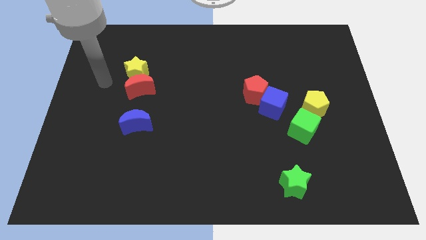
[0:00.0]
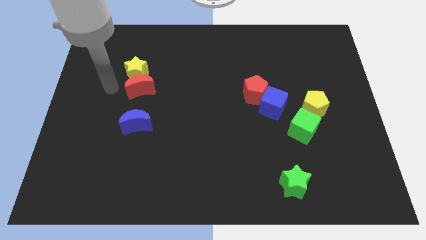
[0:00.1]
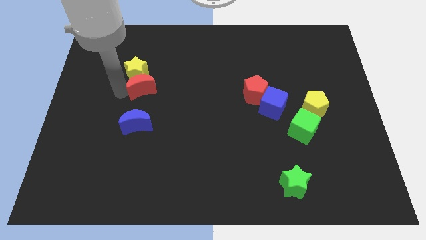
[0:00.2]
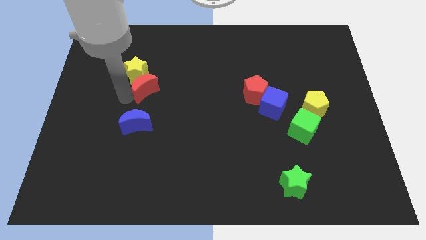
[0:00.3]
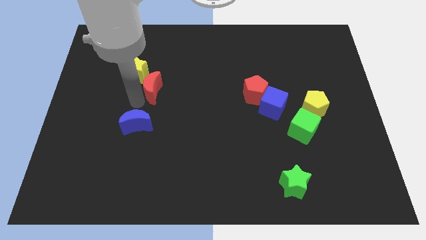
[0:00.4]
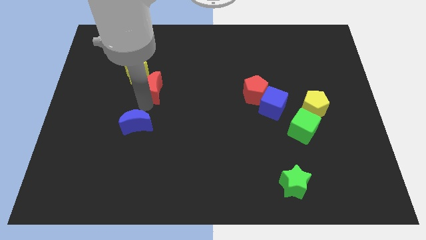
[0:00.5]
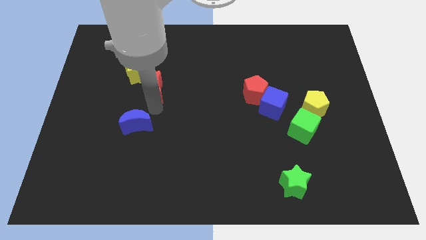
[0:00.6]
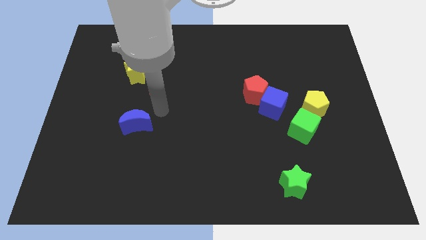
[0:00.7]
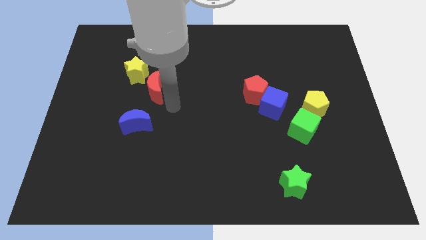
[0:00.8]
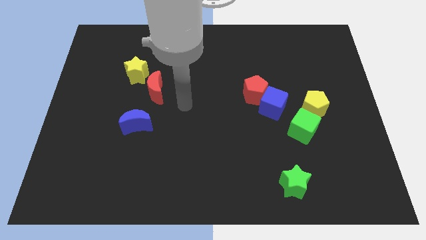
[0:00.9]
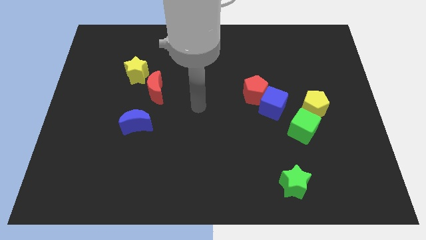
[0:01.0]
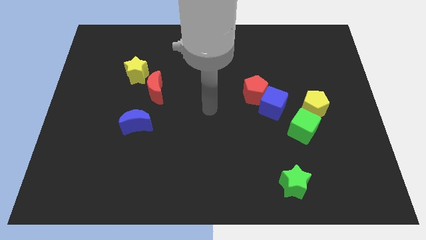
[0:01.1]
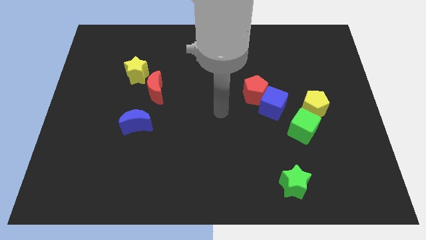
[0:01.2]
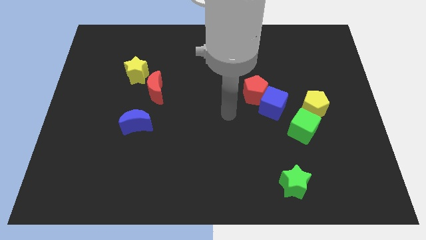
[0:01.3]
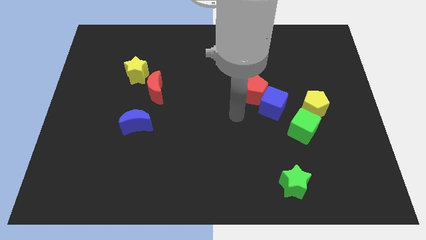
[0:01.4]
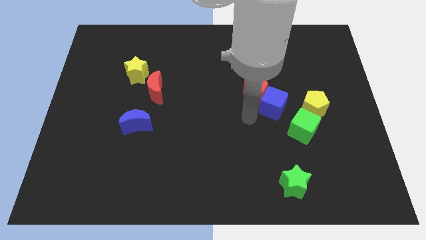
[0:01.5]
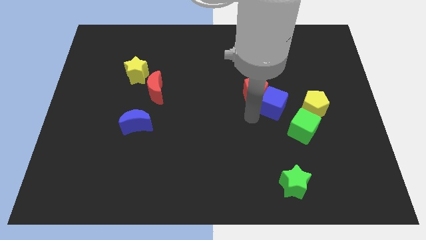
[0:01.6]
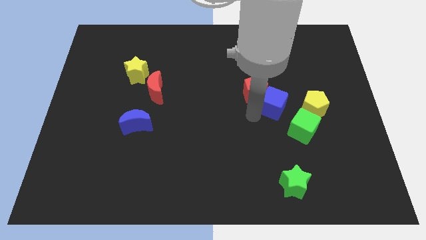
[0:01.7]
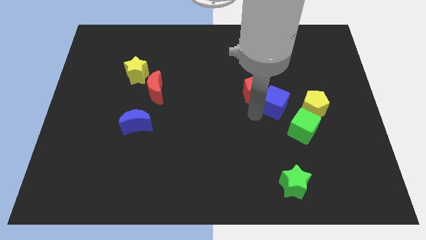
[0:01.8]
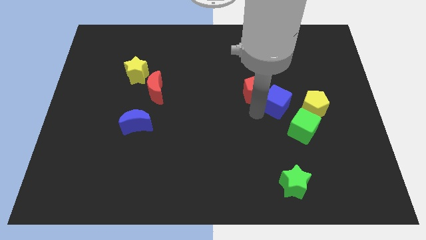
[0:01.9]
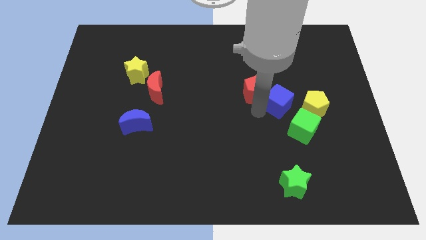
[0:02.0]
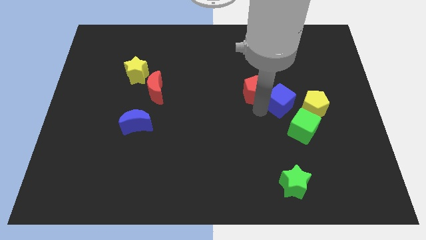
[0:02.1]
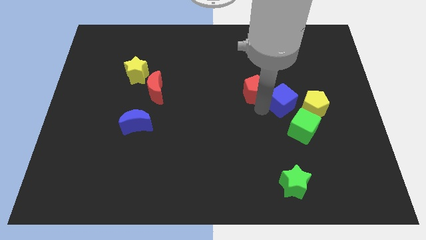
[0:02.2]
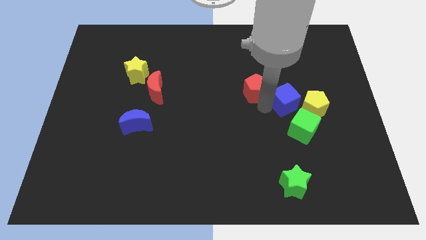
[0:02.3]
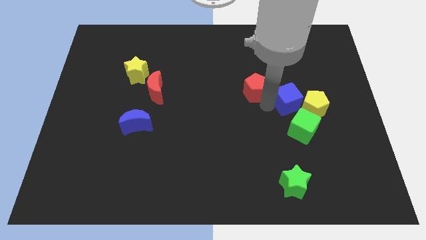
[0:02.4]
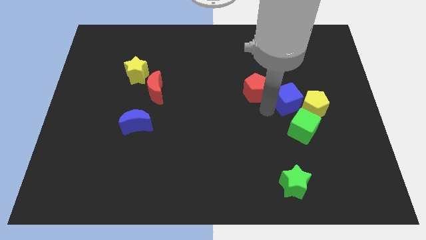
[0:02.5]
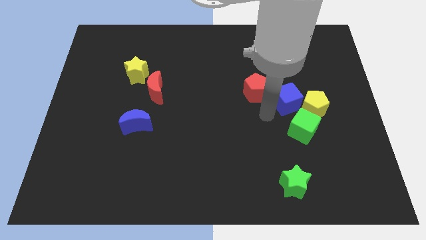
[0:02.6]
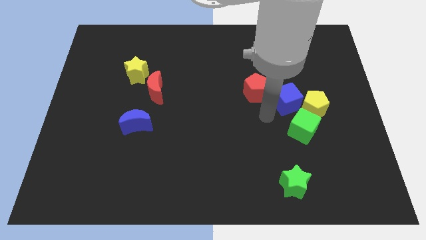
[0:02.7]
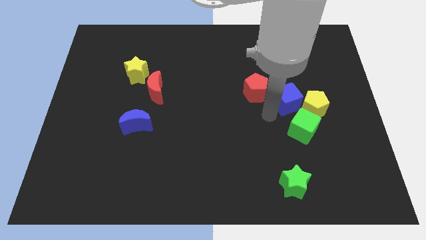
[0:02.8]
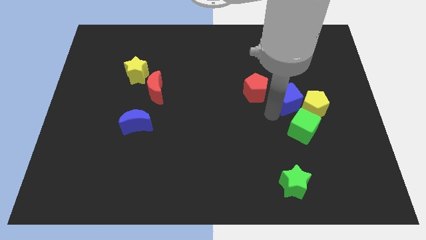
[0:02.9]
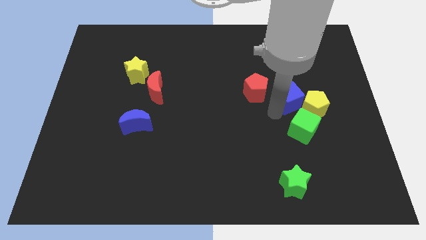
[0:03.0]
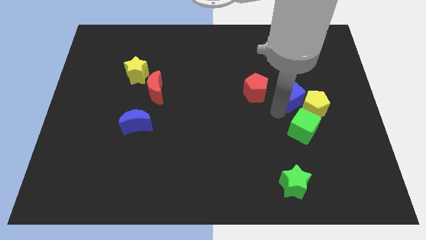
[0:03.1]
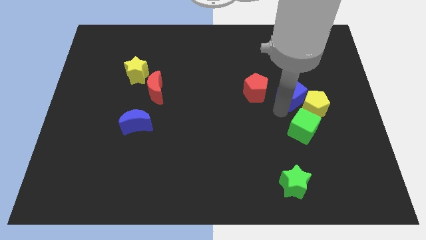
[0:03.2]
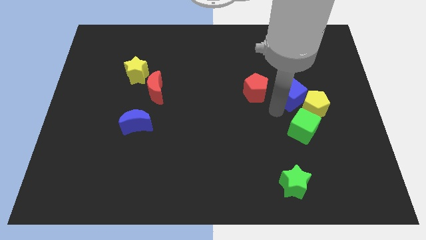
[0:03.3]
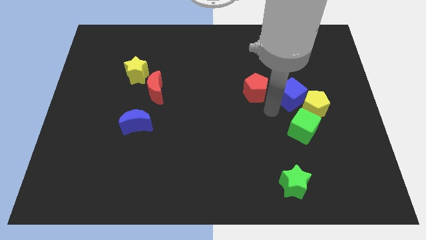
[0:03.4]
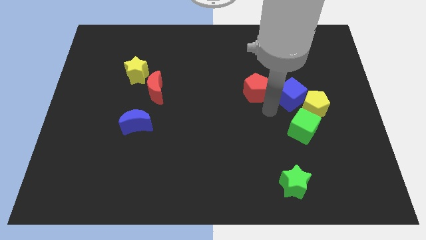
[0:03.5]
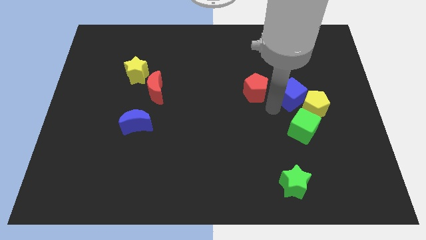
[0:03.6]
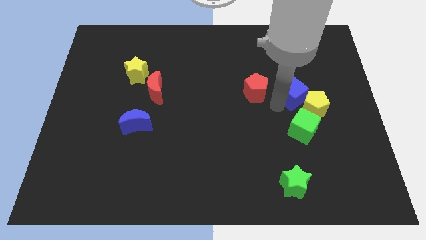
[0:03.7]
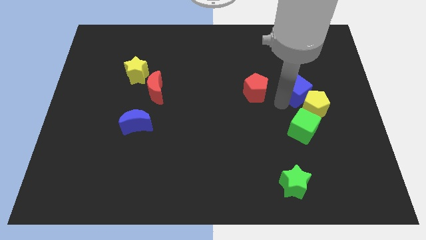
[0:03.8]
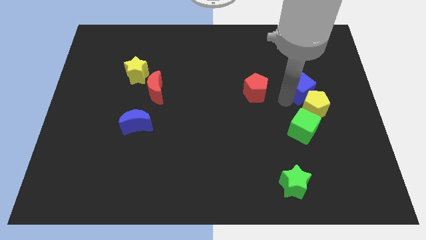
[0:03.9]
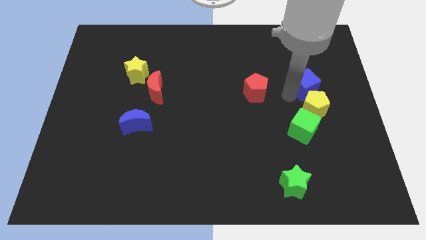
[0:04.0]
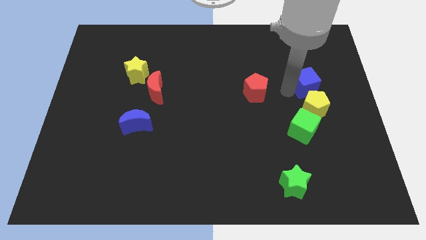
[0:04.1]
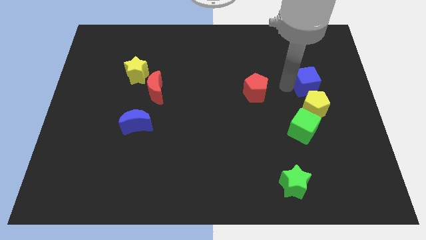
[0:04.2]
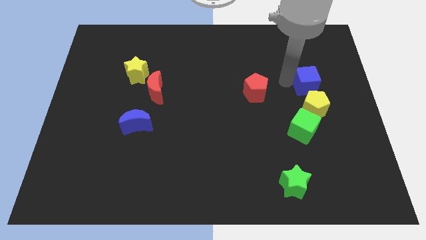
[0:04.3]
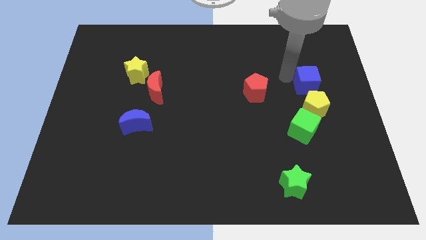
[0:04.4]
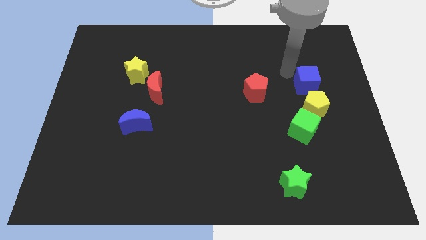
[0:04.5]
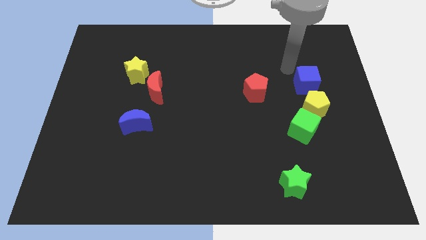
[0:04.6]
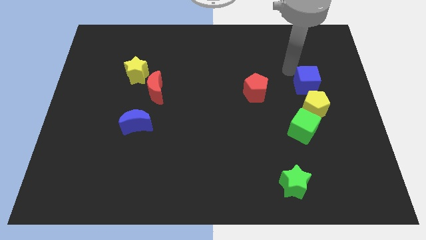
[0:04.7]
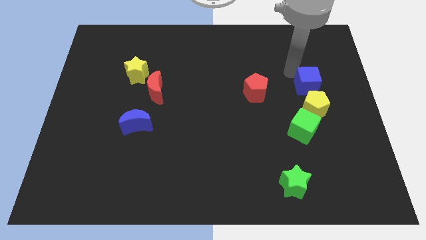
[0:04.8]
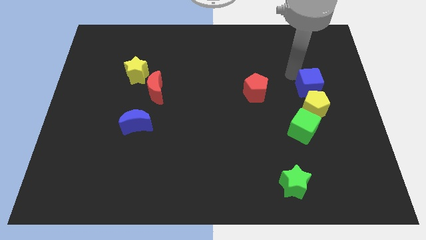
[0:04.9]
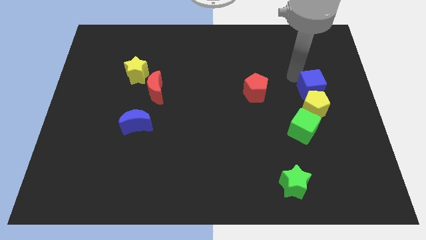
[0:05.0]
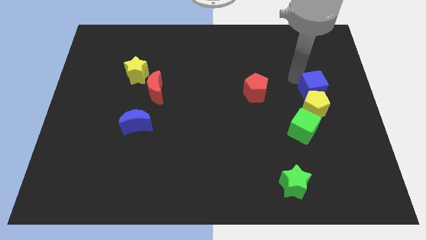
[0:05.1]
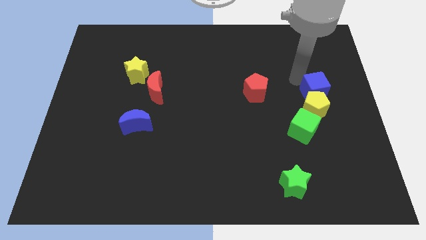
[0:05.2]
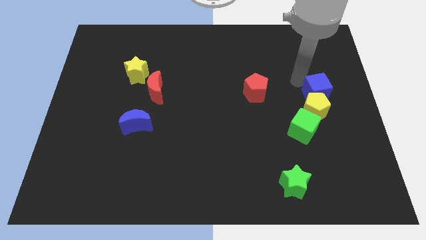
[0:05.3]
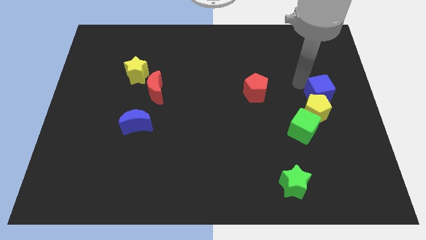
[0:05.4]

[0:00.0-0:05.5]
move the blue cube to the top right of the green cube

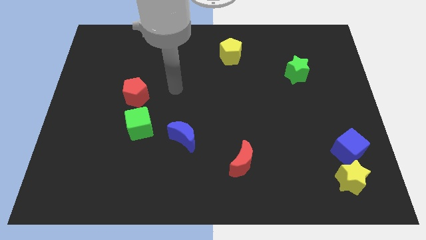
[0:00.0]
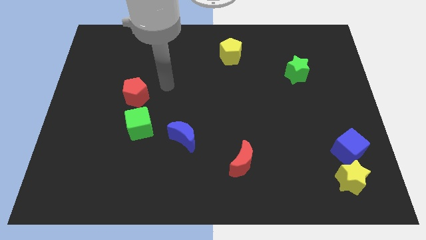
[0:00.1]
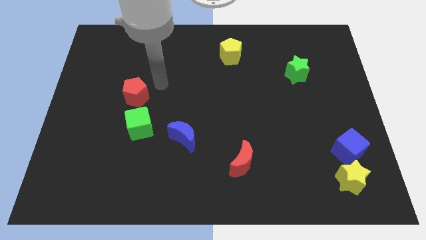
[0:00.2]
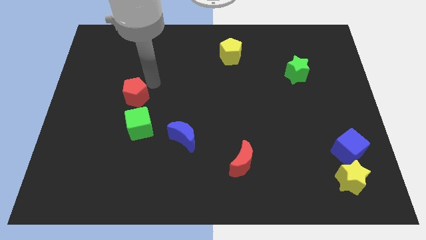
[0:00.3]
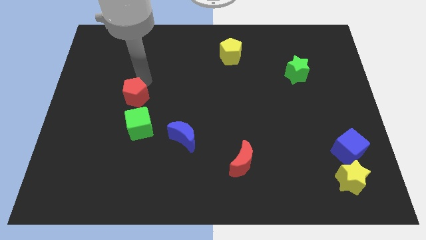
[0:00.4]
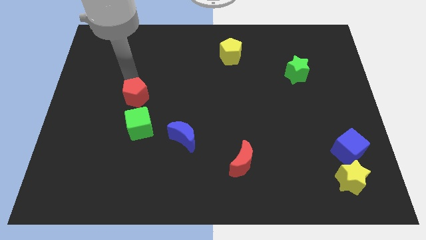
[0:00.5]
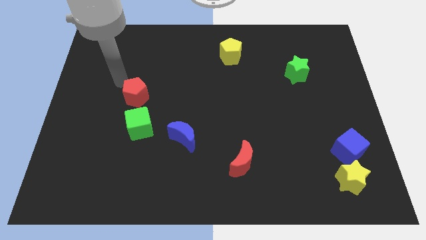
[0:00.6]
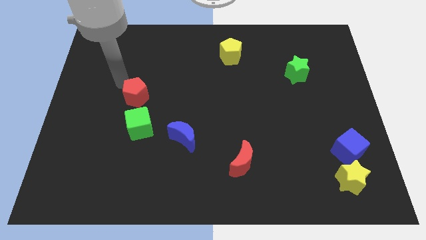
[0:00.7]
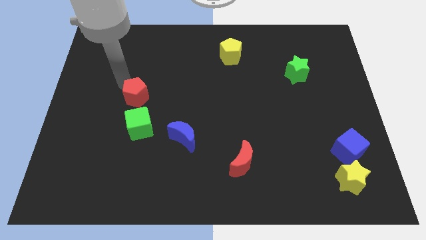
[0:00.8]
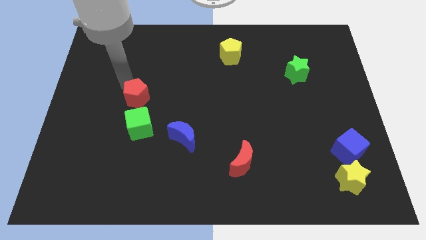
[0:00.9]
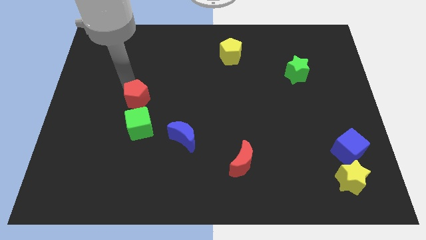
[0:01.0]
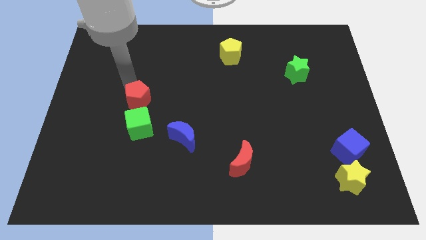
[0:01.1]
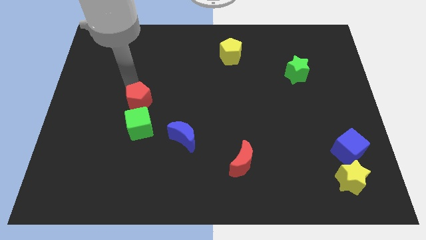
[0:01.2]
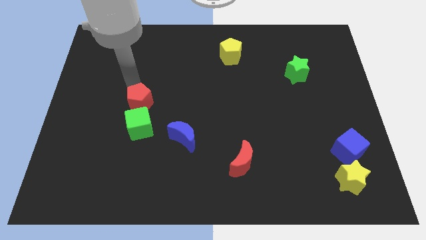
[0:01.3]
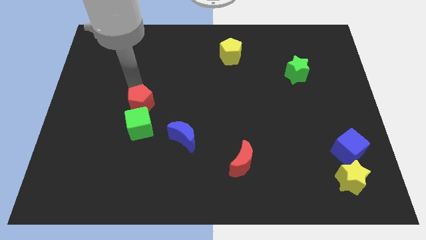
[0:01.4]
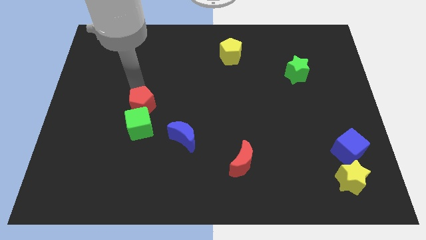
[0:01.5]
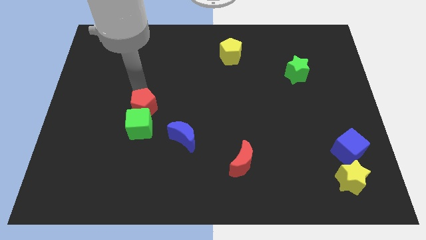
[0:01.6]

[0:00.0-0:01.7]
move the red pentagon to the top left side of the blue moon
